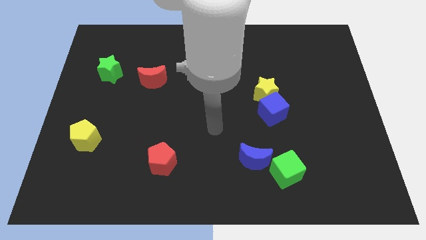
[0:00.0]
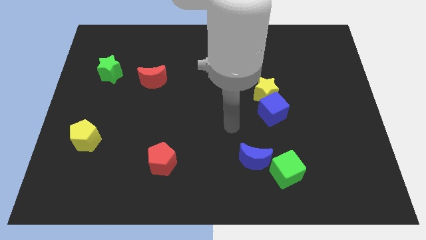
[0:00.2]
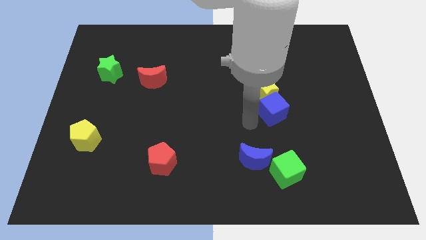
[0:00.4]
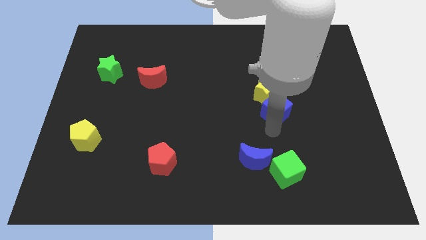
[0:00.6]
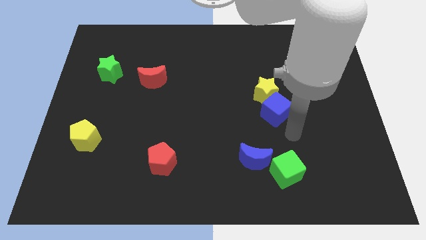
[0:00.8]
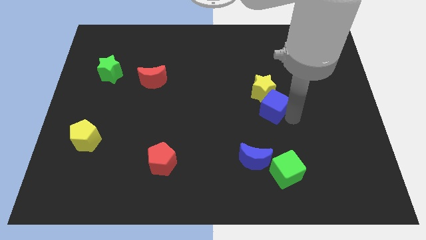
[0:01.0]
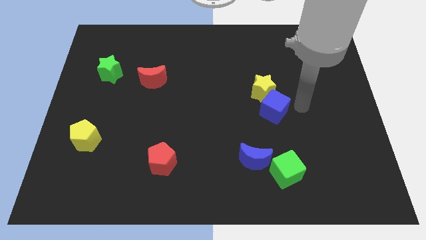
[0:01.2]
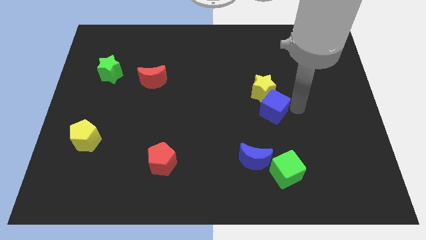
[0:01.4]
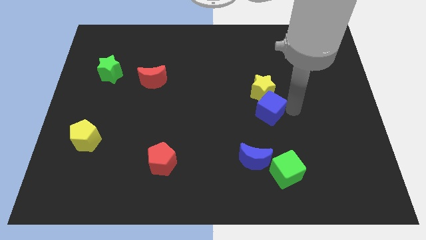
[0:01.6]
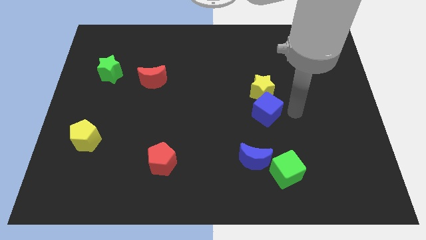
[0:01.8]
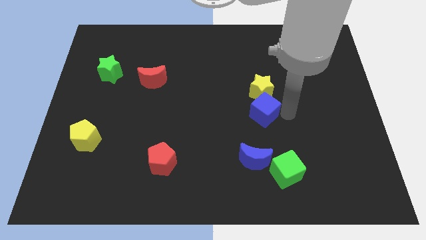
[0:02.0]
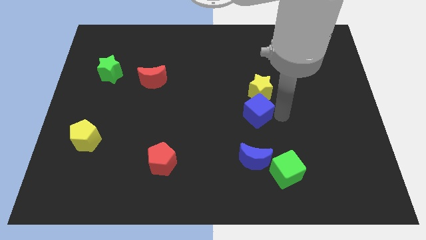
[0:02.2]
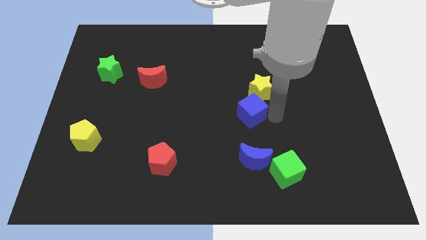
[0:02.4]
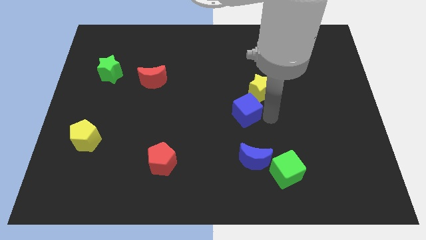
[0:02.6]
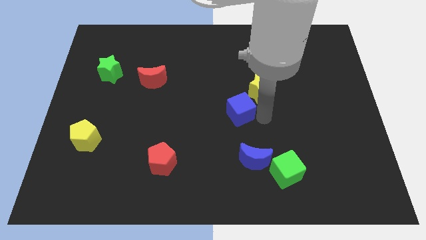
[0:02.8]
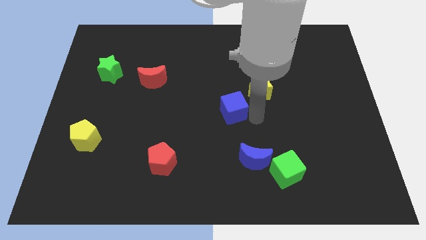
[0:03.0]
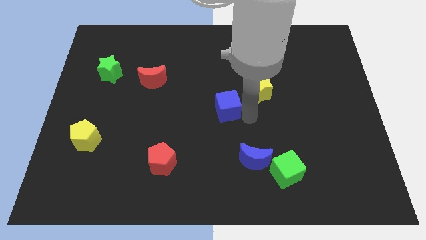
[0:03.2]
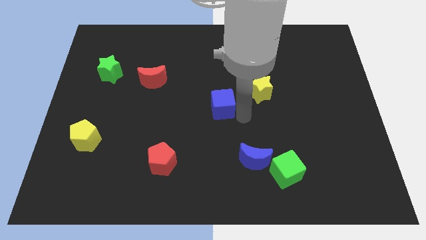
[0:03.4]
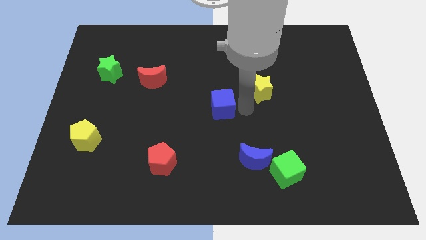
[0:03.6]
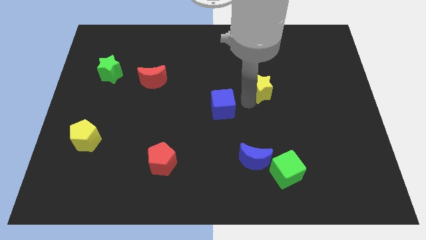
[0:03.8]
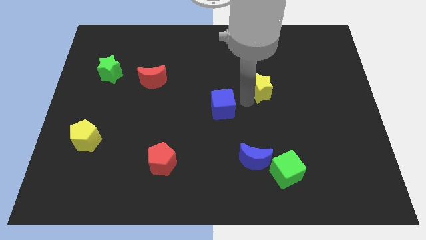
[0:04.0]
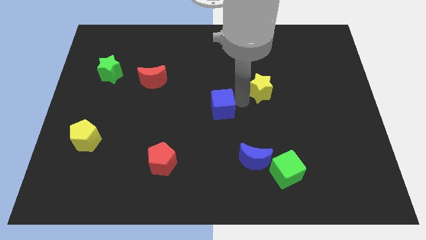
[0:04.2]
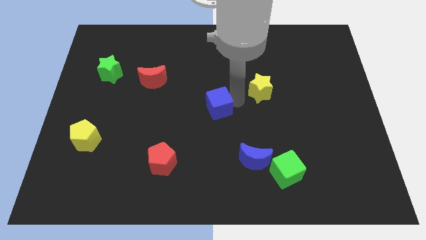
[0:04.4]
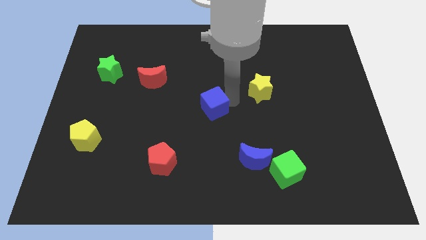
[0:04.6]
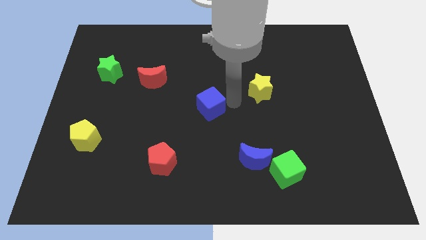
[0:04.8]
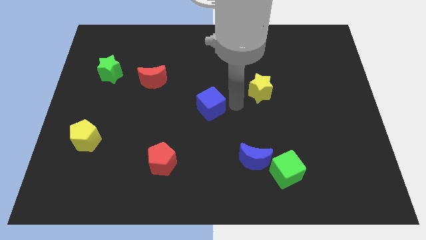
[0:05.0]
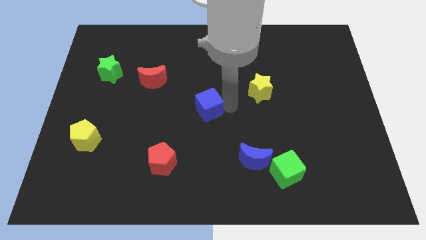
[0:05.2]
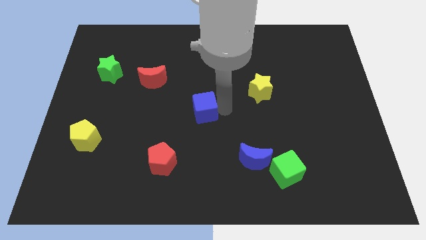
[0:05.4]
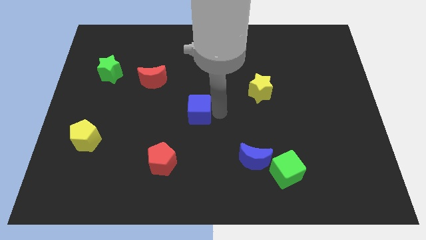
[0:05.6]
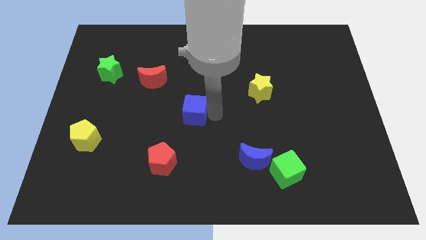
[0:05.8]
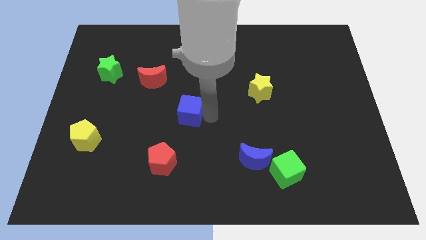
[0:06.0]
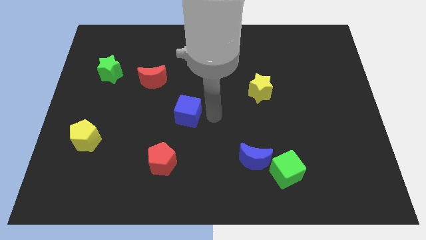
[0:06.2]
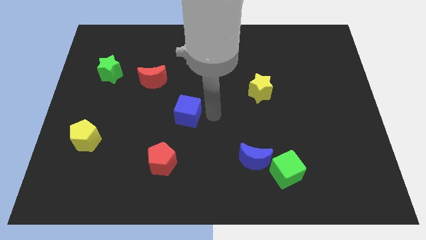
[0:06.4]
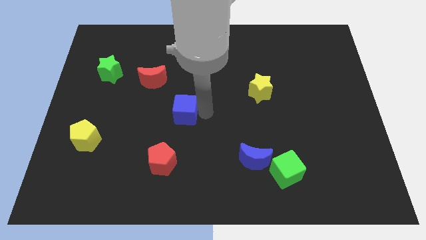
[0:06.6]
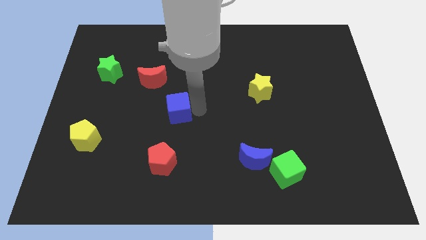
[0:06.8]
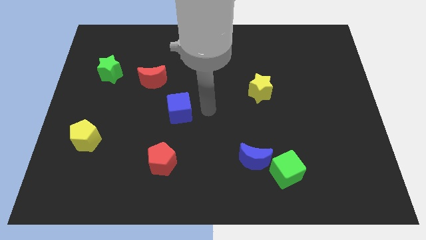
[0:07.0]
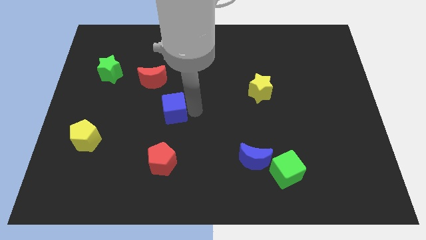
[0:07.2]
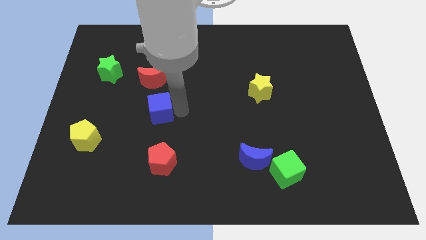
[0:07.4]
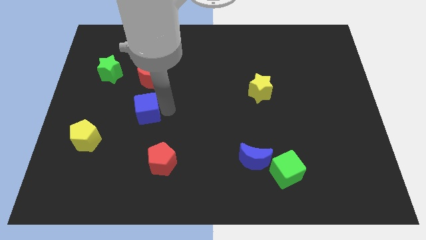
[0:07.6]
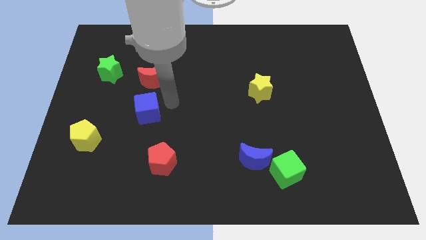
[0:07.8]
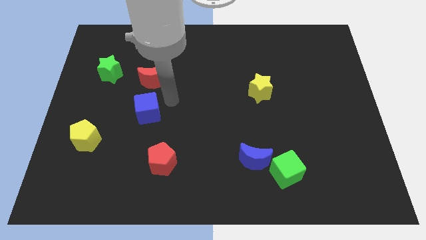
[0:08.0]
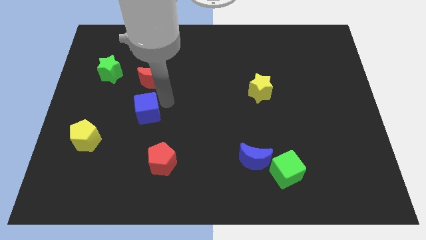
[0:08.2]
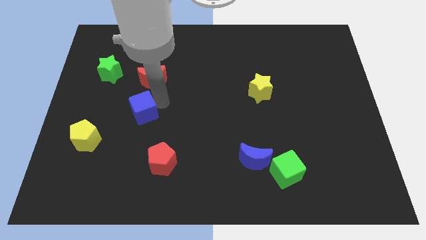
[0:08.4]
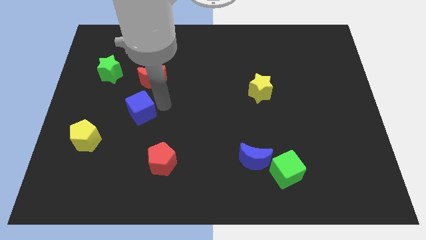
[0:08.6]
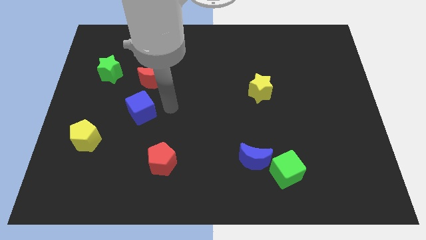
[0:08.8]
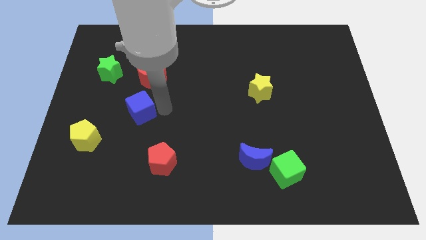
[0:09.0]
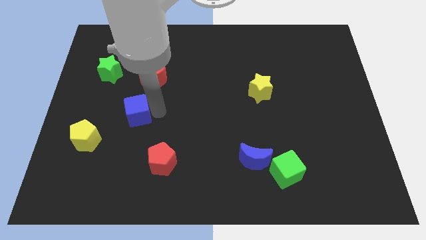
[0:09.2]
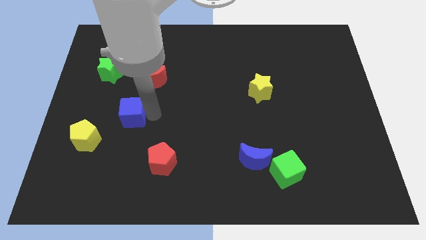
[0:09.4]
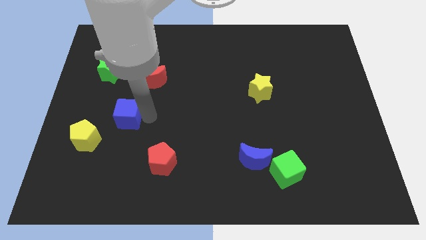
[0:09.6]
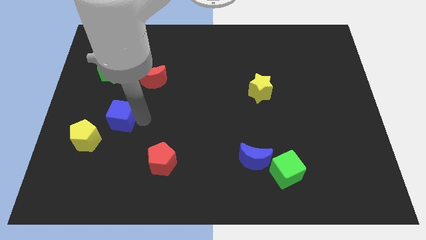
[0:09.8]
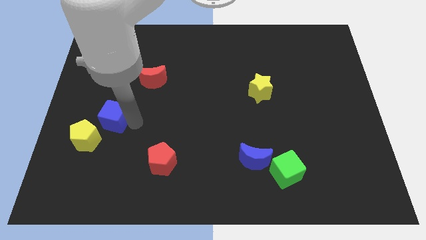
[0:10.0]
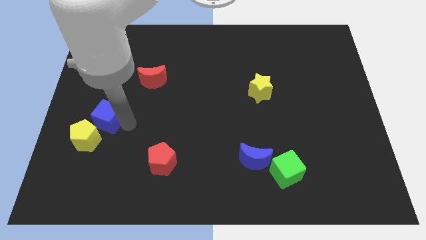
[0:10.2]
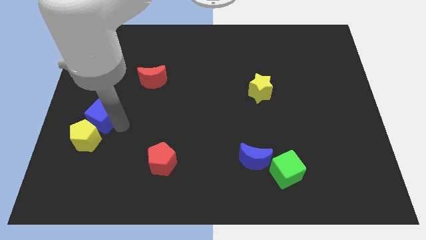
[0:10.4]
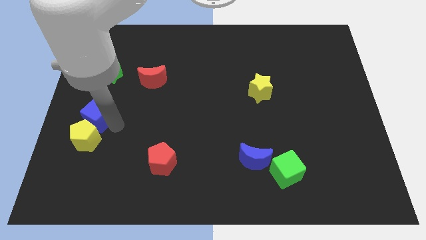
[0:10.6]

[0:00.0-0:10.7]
move the blue cube to the center left

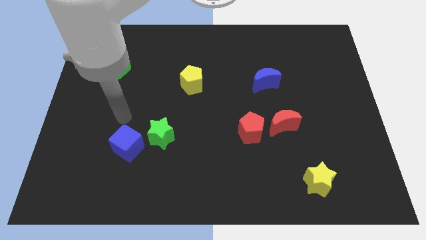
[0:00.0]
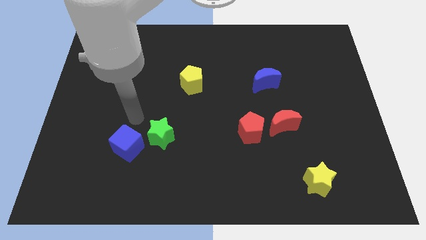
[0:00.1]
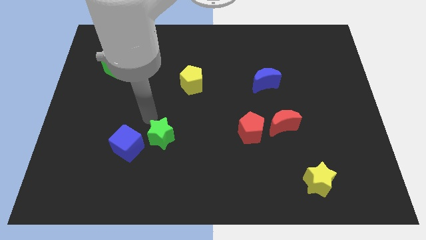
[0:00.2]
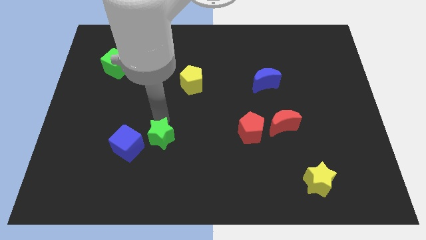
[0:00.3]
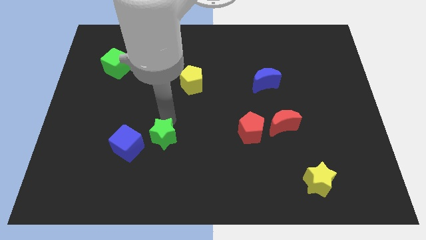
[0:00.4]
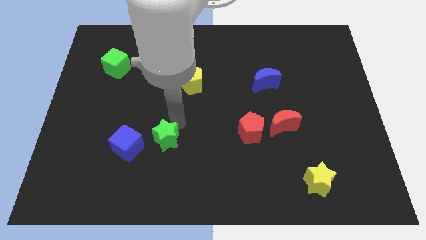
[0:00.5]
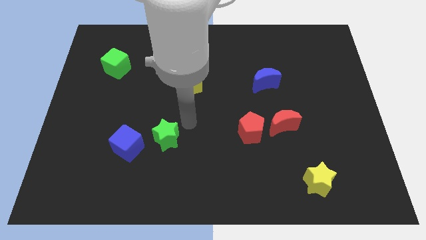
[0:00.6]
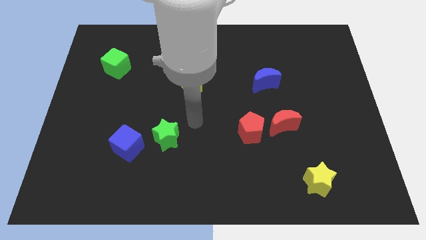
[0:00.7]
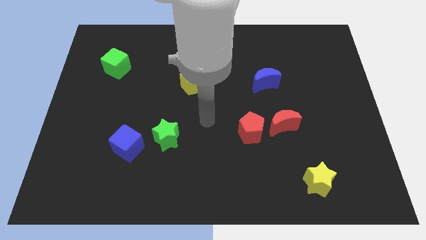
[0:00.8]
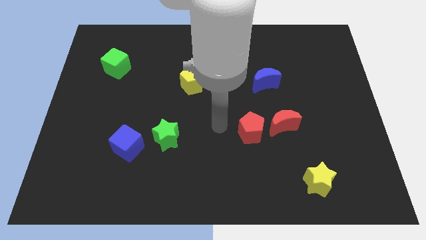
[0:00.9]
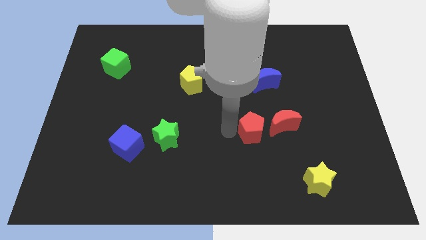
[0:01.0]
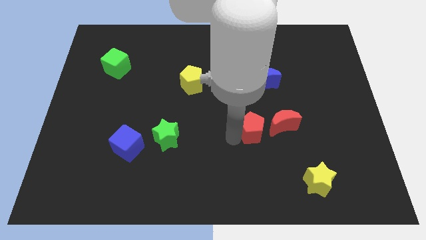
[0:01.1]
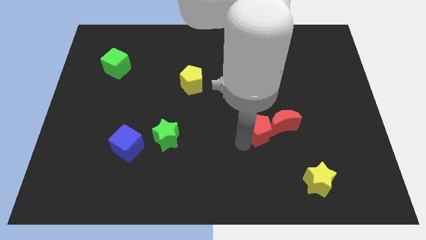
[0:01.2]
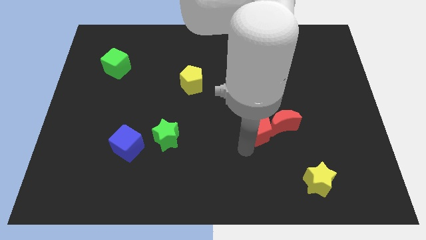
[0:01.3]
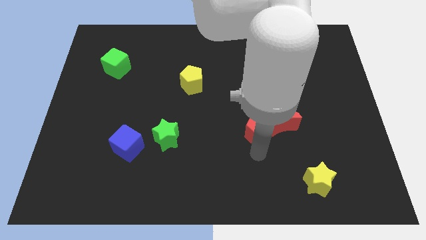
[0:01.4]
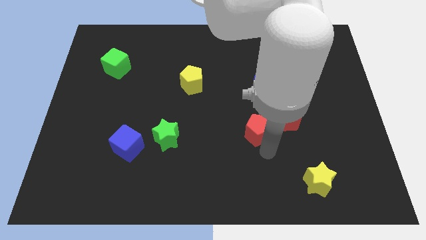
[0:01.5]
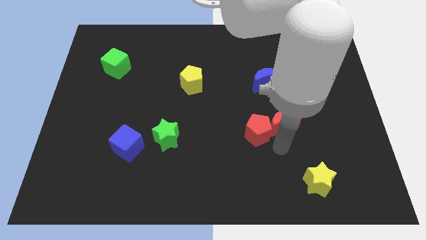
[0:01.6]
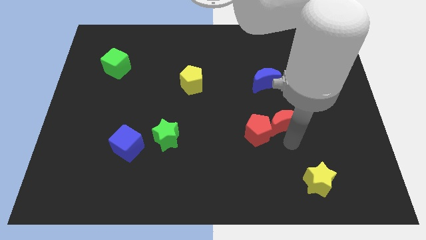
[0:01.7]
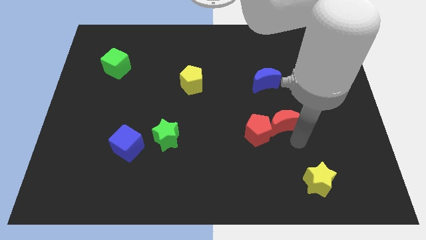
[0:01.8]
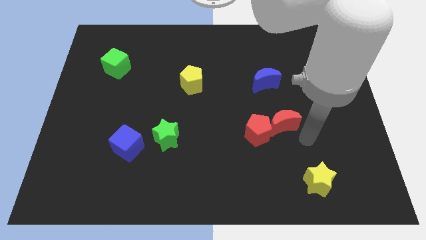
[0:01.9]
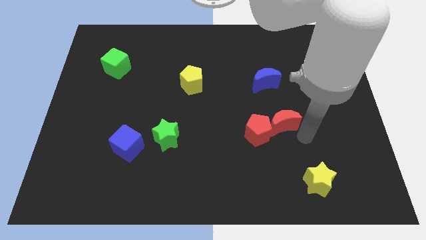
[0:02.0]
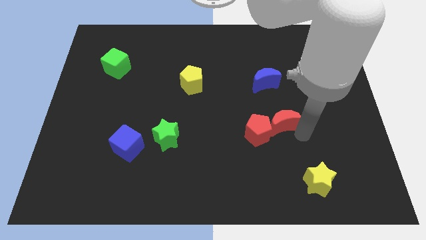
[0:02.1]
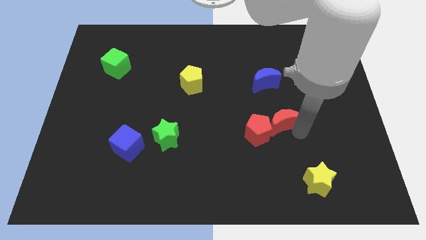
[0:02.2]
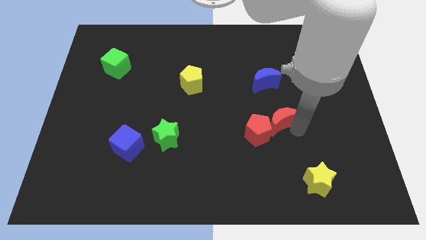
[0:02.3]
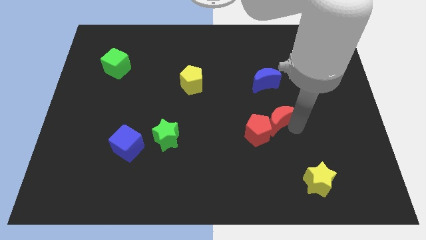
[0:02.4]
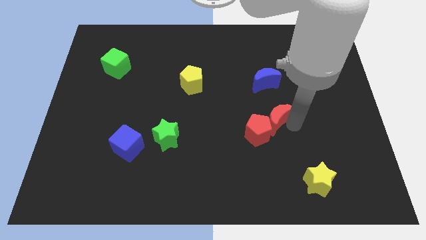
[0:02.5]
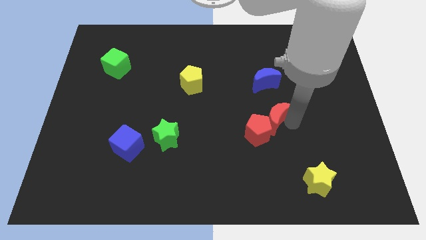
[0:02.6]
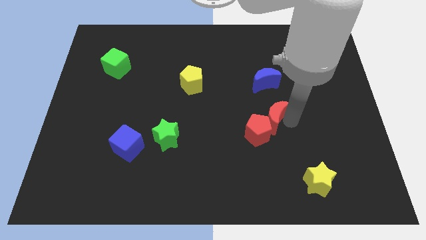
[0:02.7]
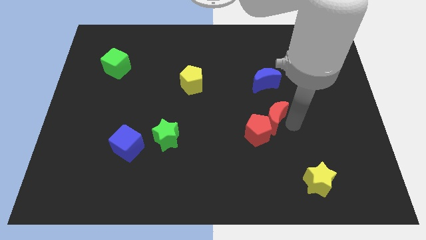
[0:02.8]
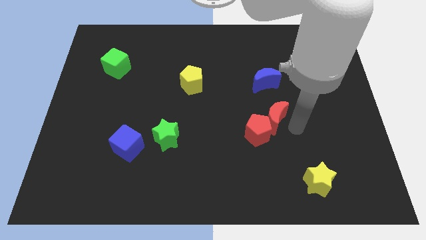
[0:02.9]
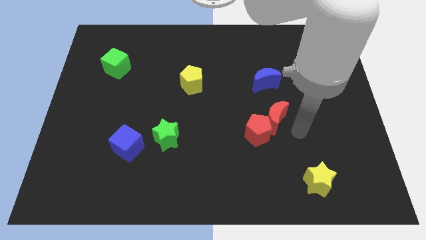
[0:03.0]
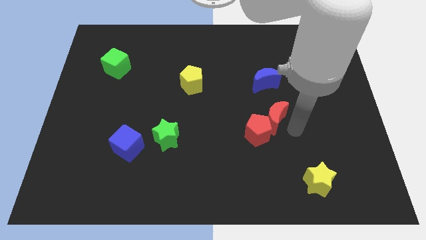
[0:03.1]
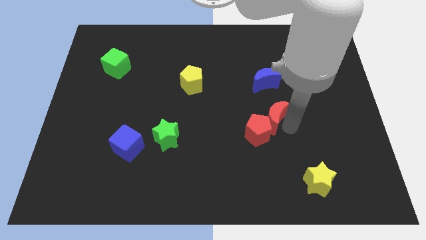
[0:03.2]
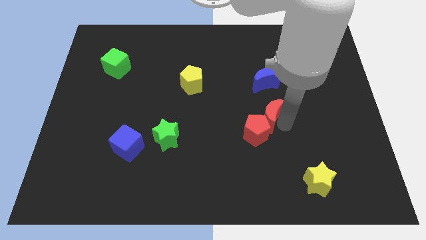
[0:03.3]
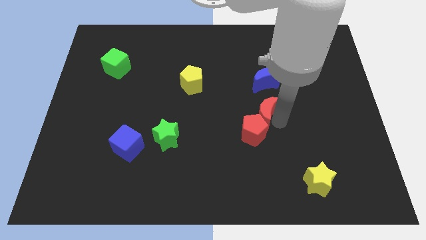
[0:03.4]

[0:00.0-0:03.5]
push the red moon to the center
